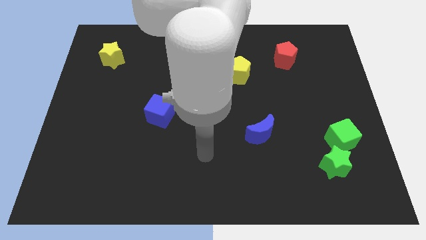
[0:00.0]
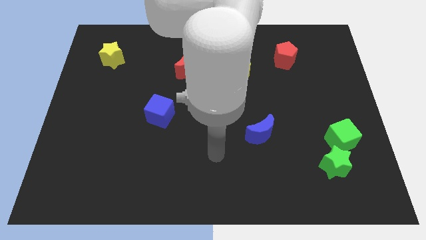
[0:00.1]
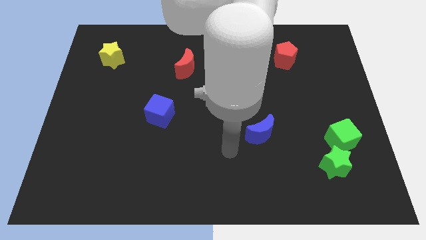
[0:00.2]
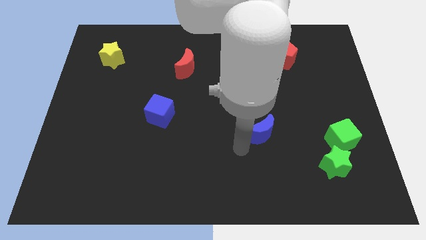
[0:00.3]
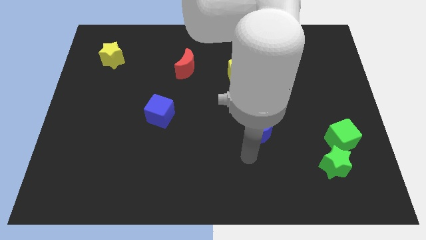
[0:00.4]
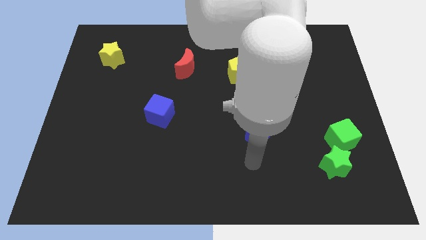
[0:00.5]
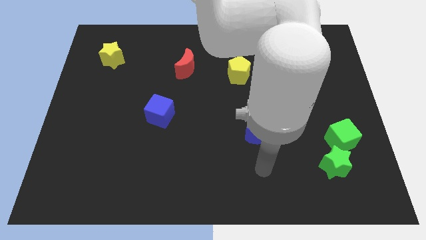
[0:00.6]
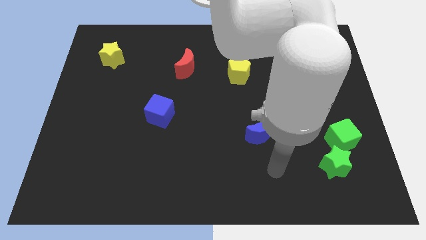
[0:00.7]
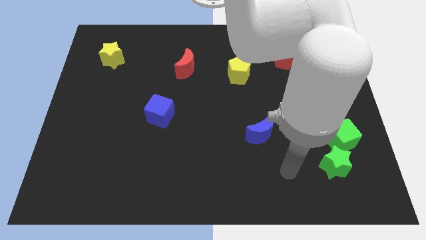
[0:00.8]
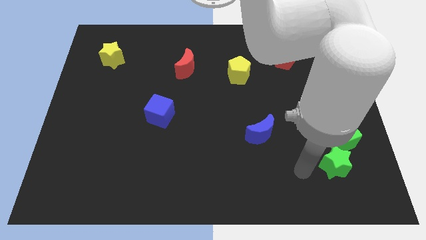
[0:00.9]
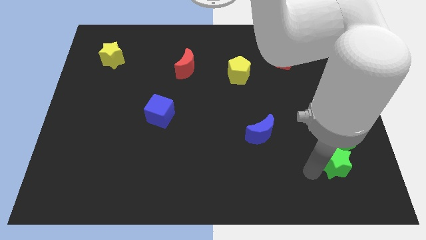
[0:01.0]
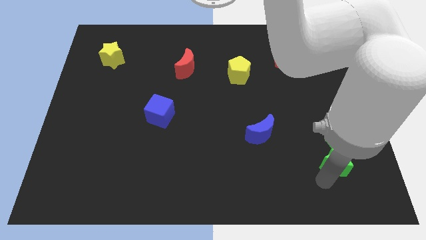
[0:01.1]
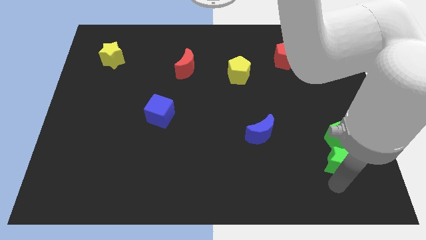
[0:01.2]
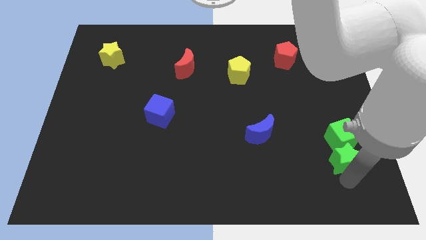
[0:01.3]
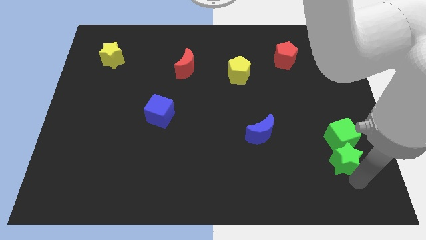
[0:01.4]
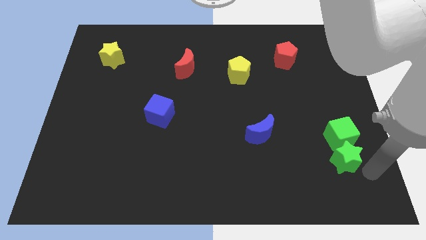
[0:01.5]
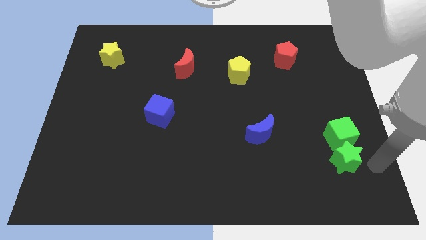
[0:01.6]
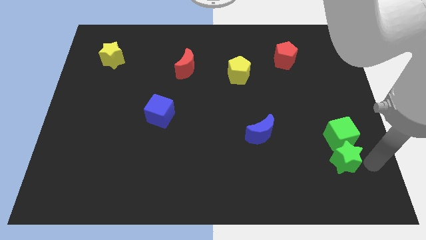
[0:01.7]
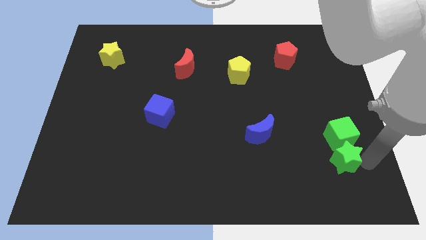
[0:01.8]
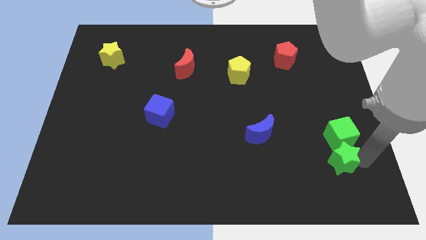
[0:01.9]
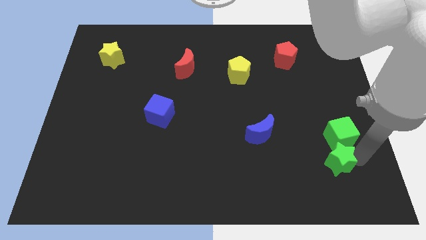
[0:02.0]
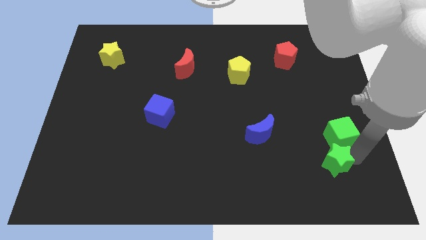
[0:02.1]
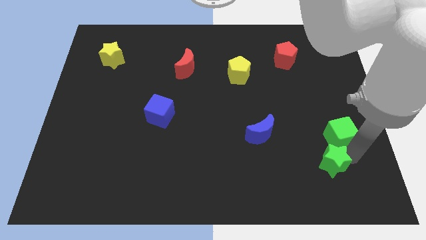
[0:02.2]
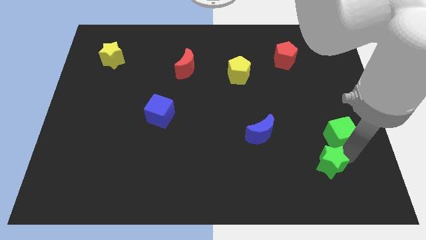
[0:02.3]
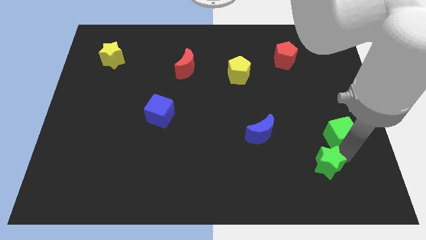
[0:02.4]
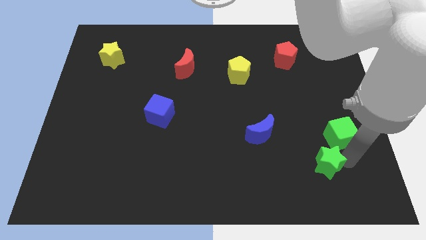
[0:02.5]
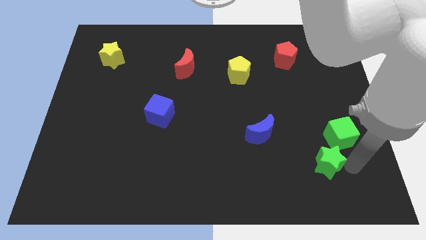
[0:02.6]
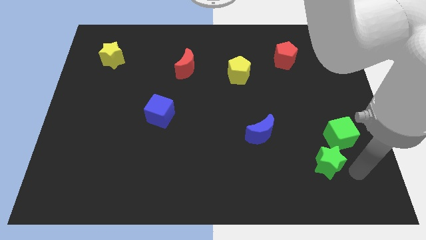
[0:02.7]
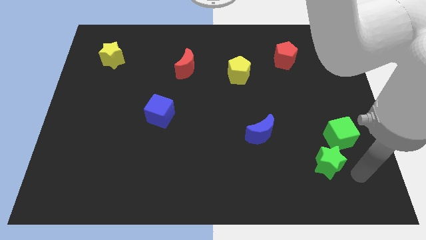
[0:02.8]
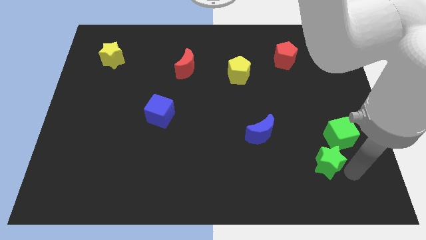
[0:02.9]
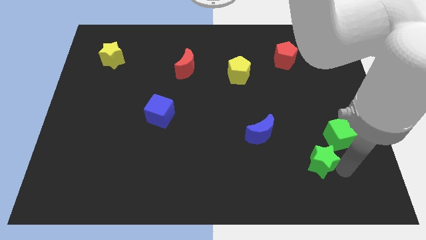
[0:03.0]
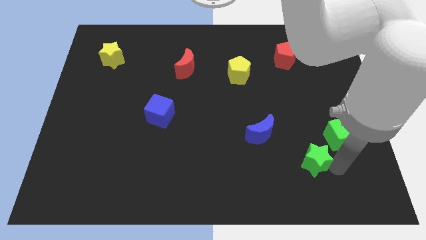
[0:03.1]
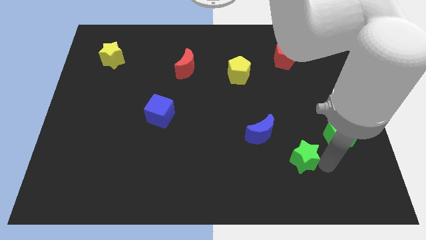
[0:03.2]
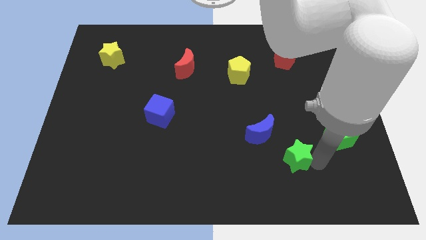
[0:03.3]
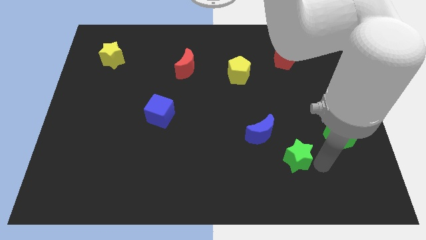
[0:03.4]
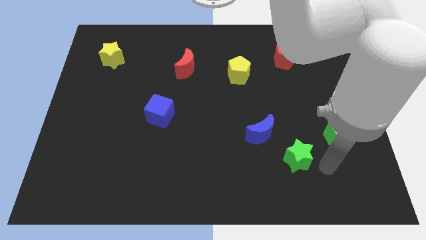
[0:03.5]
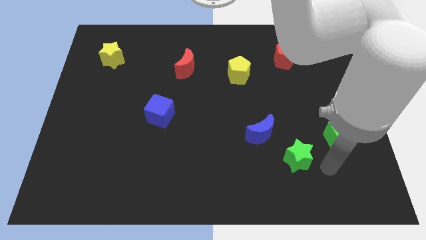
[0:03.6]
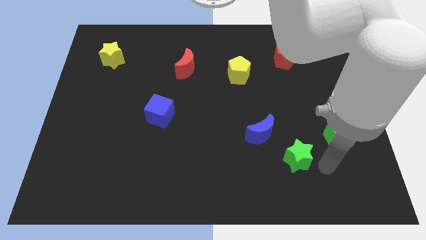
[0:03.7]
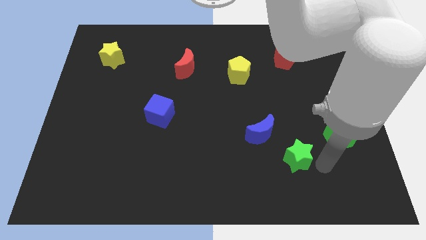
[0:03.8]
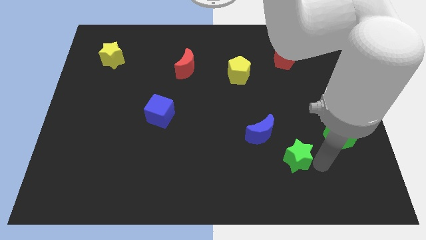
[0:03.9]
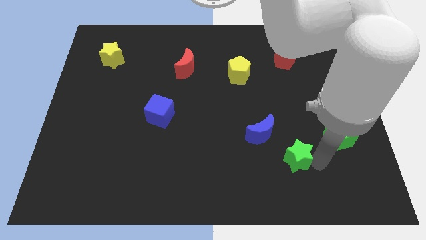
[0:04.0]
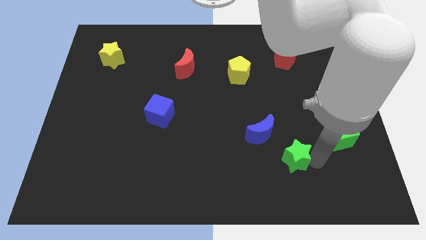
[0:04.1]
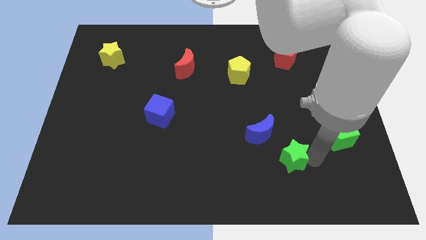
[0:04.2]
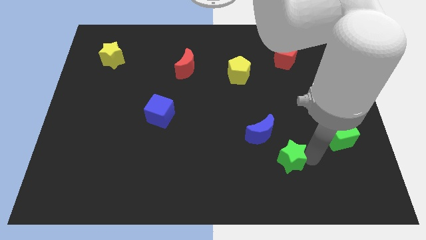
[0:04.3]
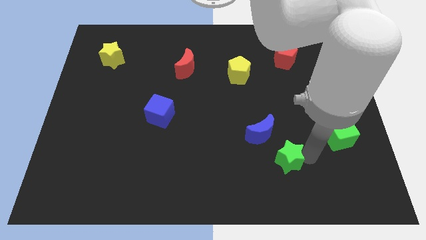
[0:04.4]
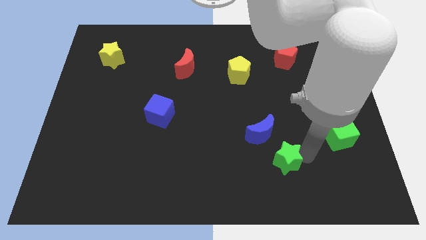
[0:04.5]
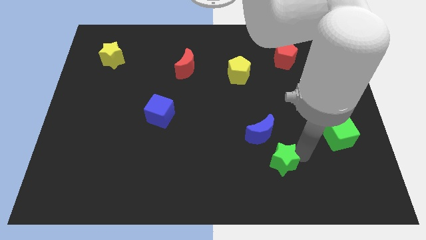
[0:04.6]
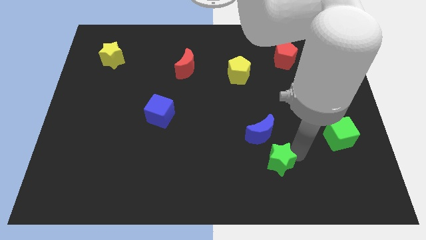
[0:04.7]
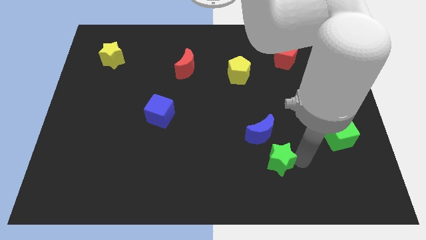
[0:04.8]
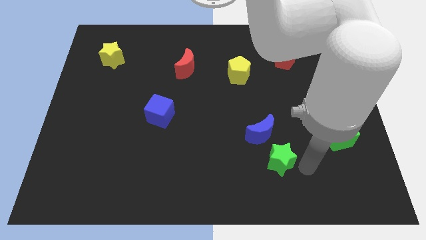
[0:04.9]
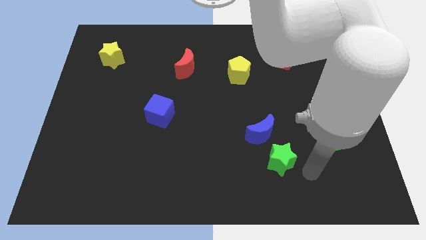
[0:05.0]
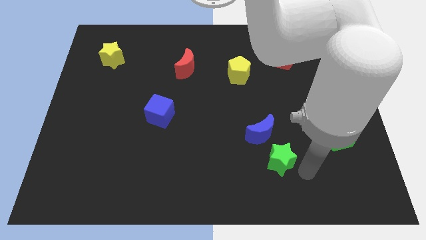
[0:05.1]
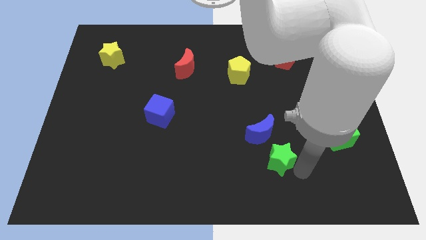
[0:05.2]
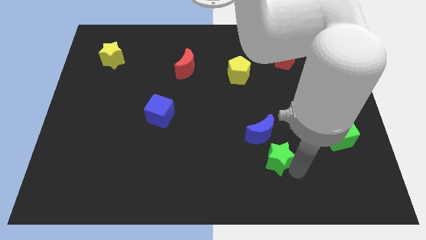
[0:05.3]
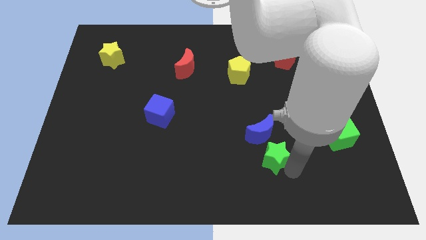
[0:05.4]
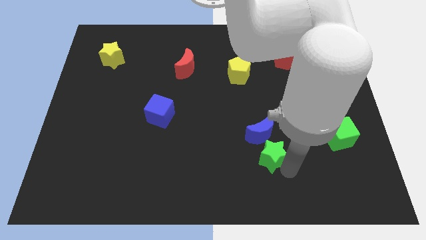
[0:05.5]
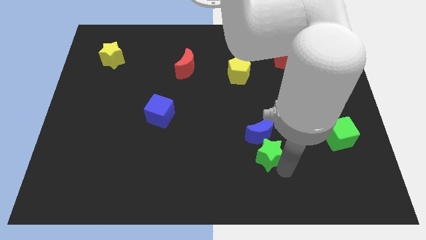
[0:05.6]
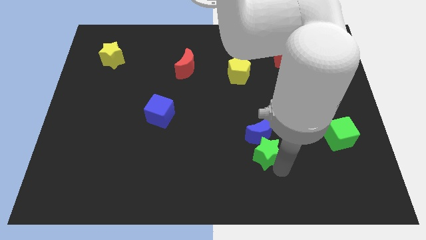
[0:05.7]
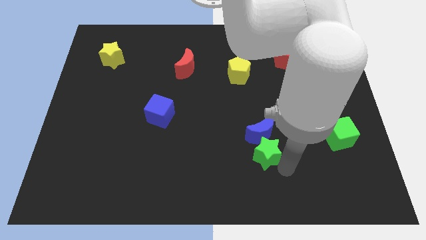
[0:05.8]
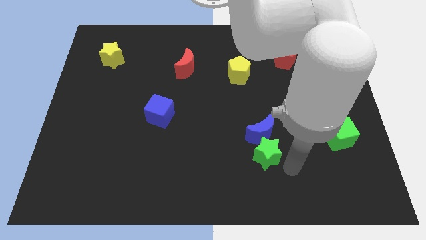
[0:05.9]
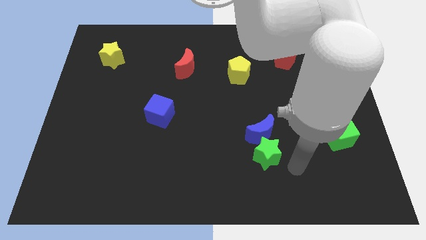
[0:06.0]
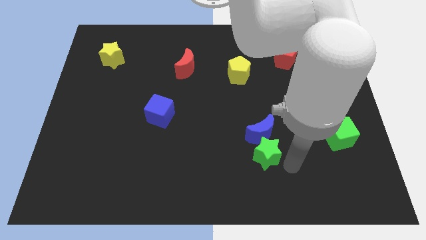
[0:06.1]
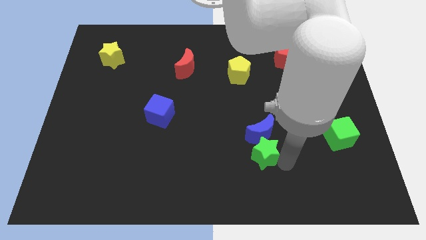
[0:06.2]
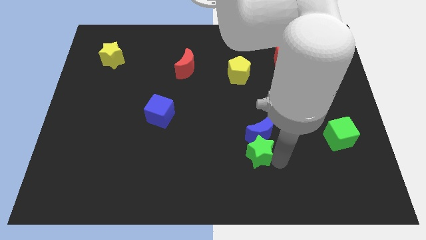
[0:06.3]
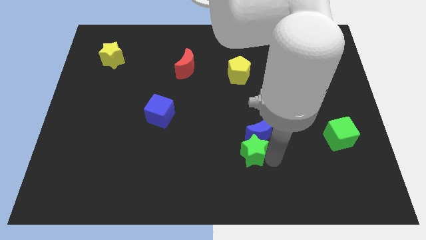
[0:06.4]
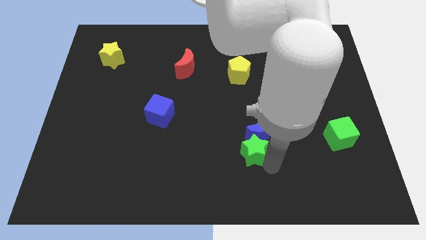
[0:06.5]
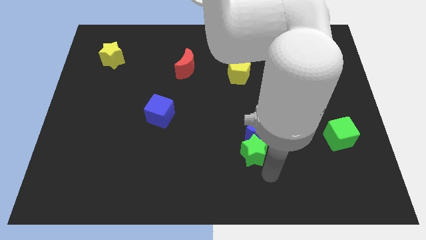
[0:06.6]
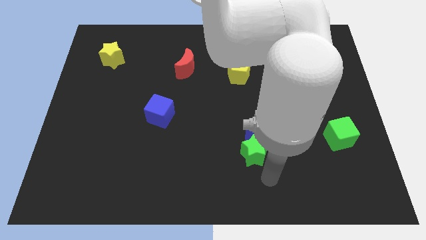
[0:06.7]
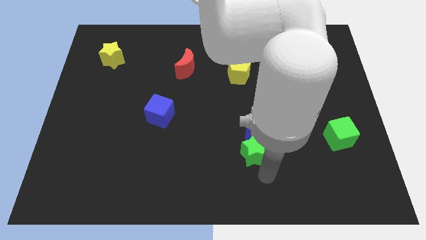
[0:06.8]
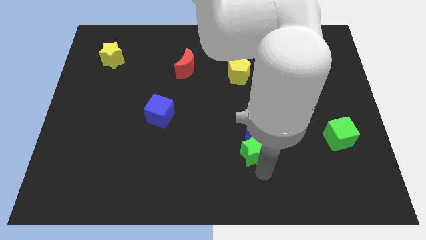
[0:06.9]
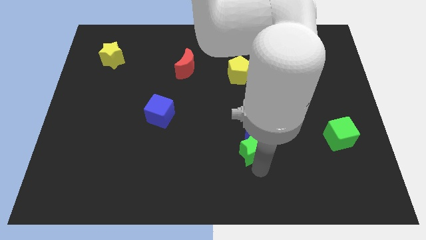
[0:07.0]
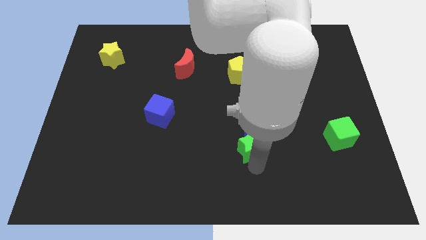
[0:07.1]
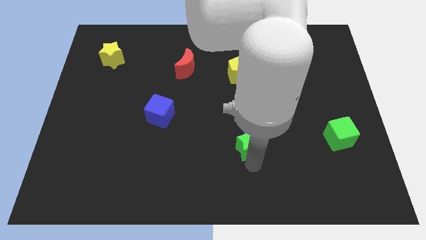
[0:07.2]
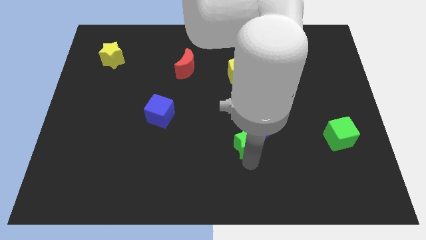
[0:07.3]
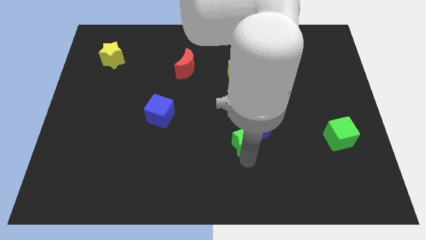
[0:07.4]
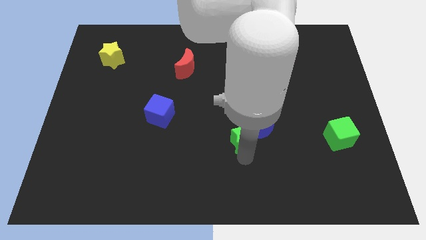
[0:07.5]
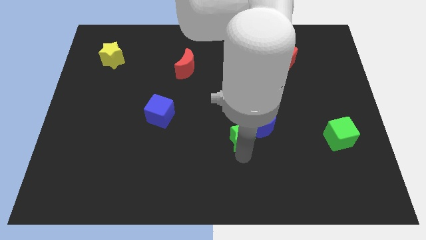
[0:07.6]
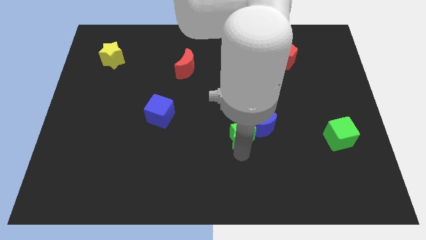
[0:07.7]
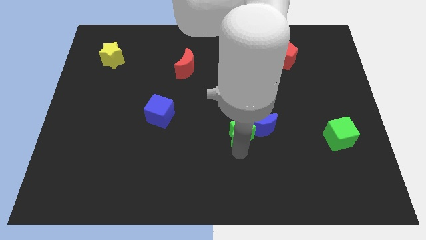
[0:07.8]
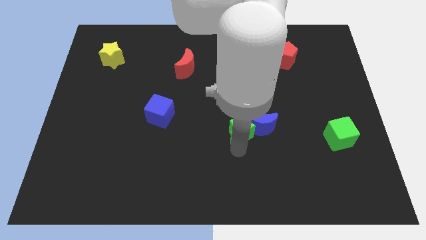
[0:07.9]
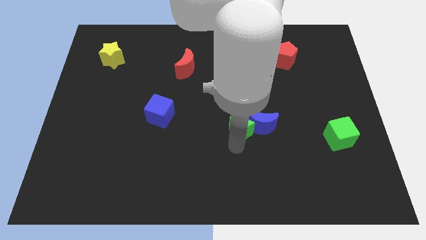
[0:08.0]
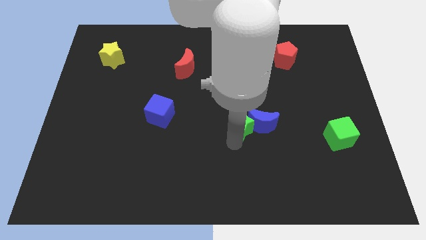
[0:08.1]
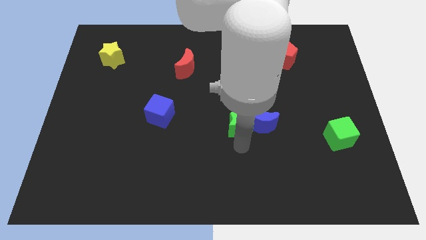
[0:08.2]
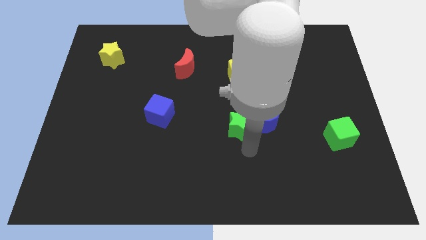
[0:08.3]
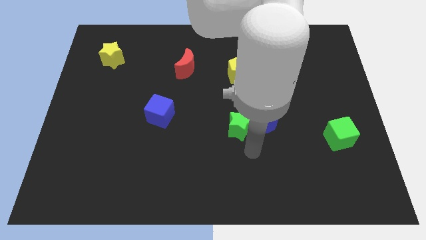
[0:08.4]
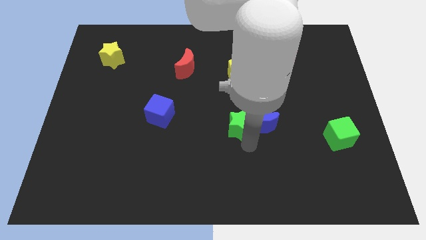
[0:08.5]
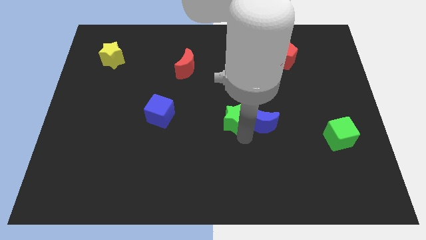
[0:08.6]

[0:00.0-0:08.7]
push the green star upwards and to the left diagonally
